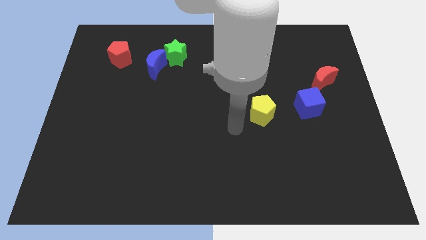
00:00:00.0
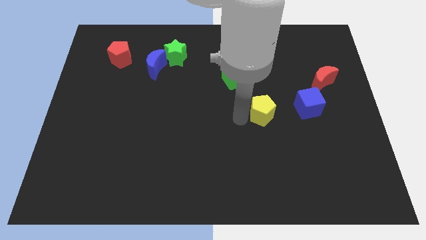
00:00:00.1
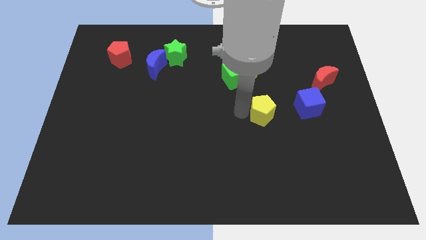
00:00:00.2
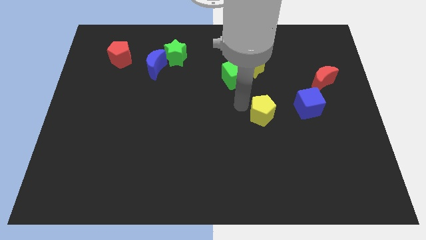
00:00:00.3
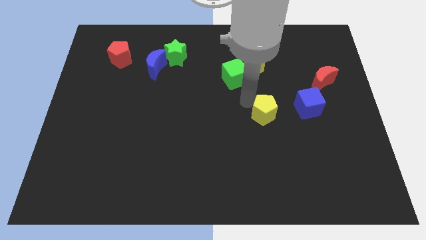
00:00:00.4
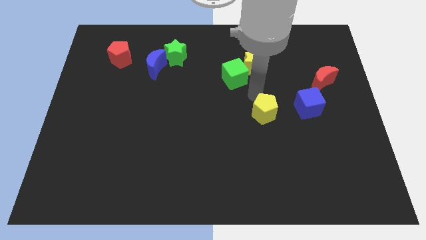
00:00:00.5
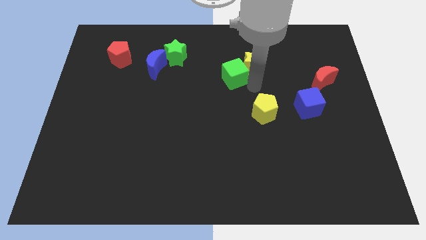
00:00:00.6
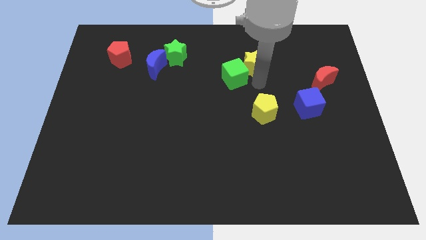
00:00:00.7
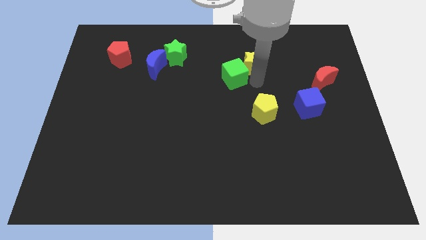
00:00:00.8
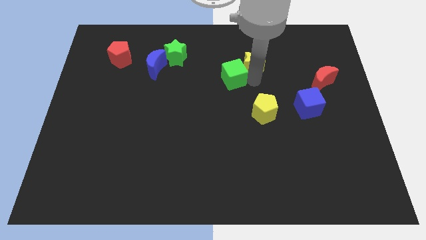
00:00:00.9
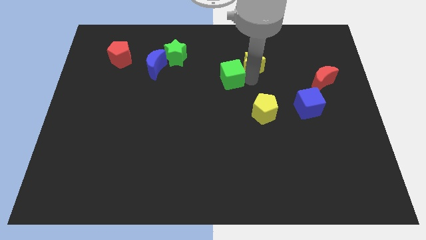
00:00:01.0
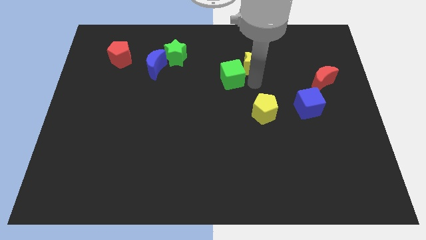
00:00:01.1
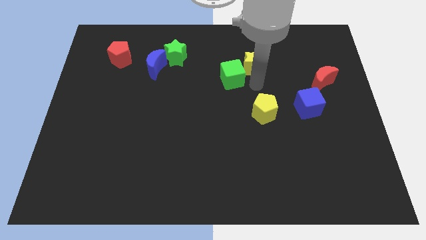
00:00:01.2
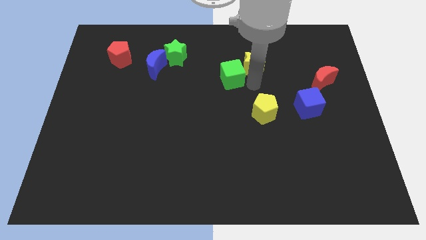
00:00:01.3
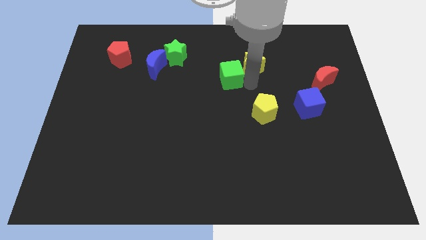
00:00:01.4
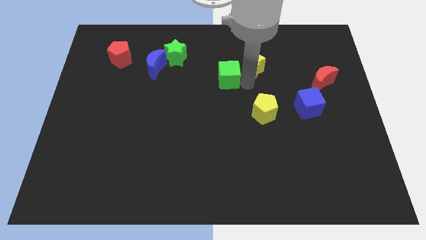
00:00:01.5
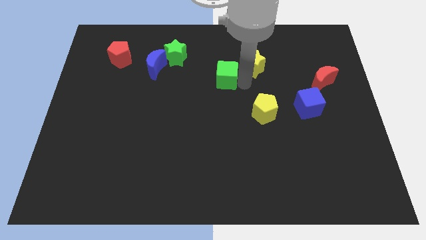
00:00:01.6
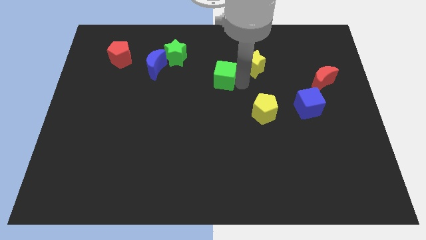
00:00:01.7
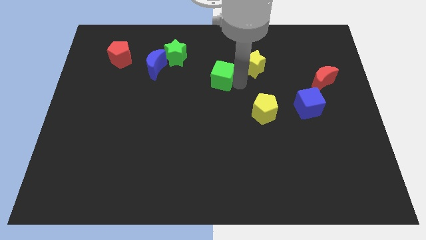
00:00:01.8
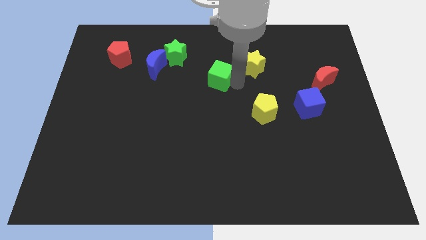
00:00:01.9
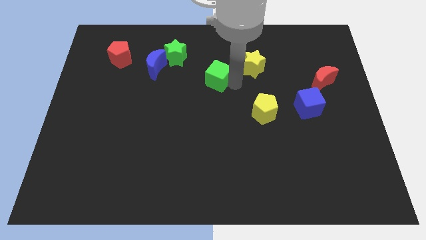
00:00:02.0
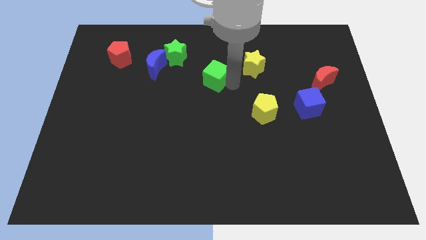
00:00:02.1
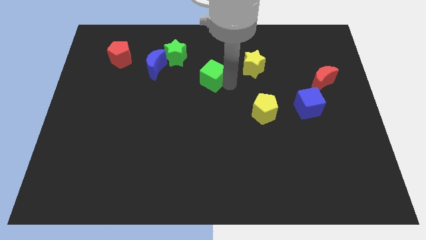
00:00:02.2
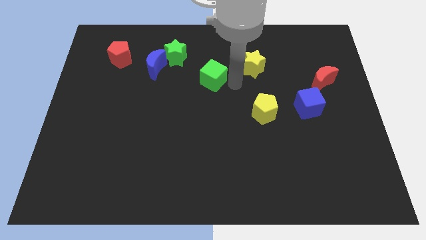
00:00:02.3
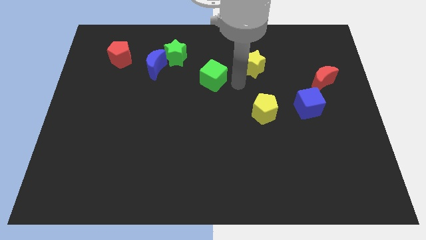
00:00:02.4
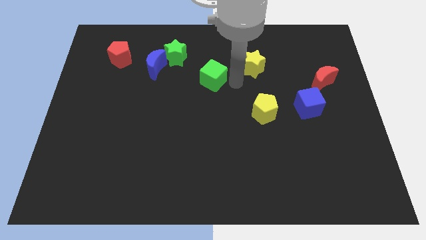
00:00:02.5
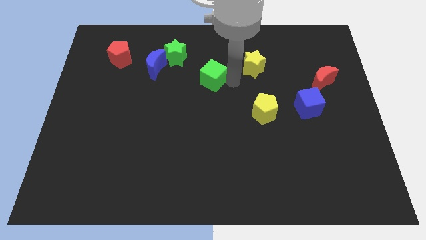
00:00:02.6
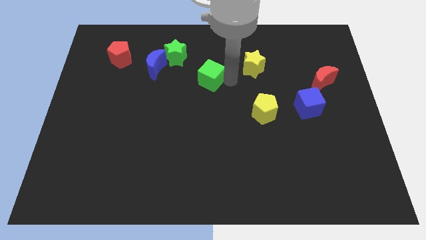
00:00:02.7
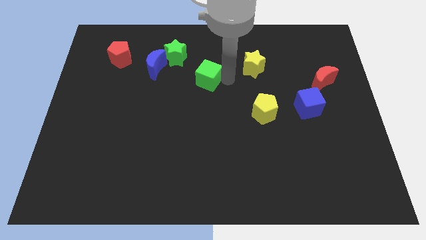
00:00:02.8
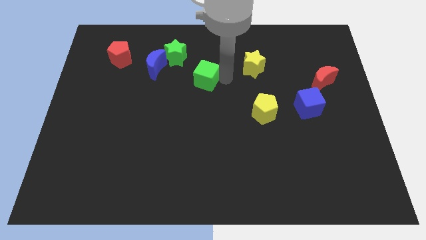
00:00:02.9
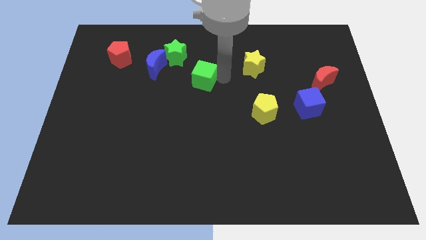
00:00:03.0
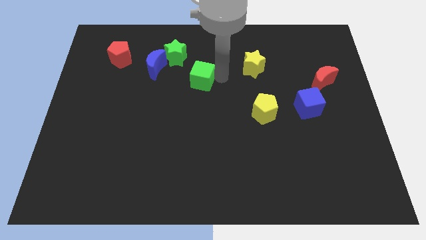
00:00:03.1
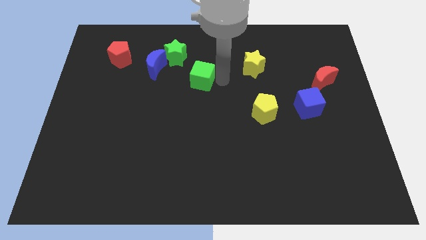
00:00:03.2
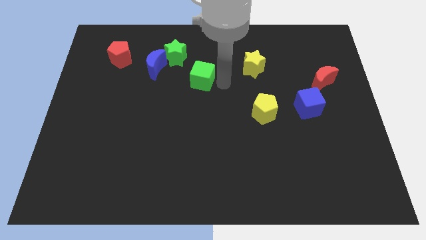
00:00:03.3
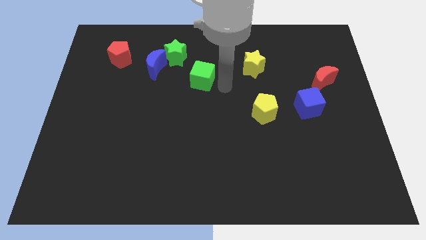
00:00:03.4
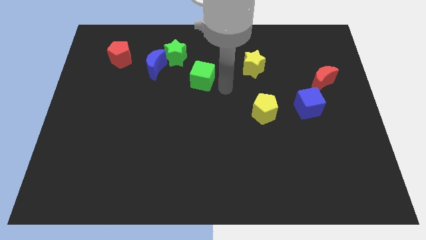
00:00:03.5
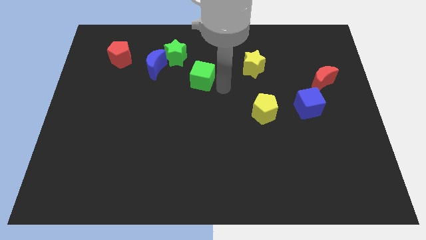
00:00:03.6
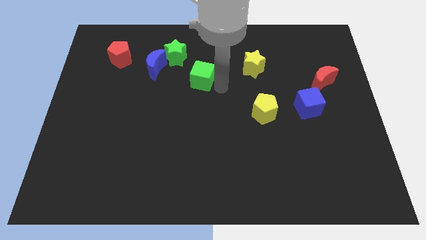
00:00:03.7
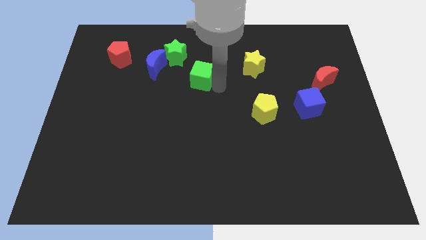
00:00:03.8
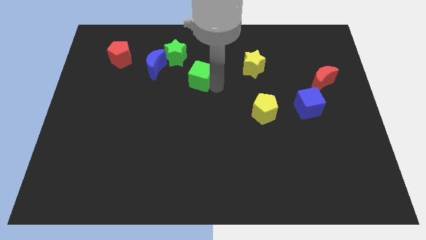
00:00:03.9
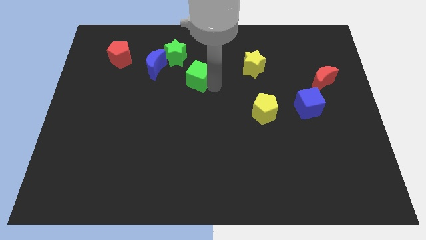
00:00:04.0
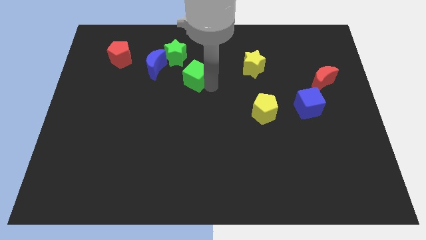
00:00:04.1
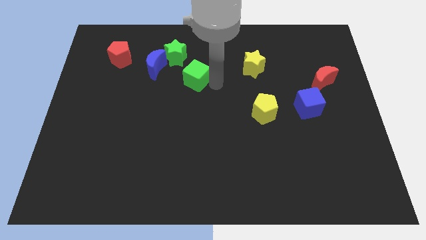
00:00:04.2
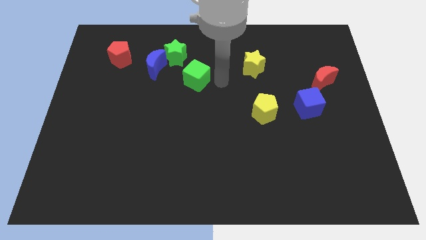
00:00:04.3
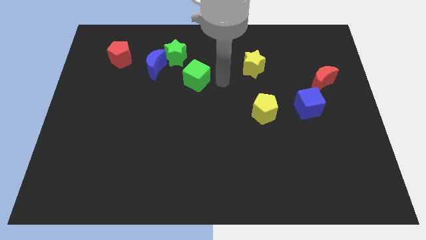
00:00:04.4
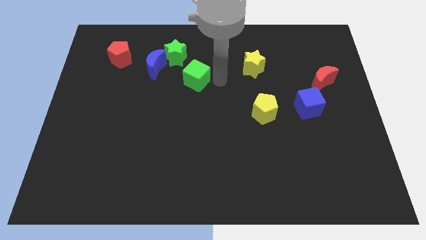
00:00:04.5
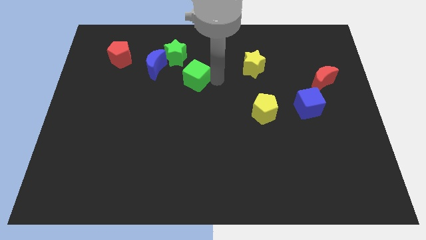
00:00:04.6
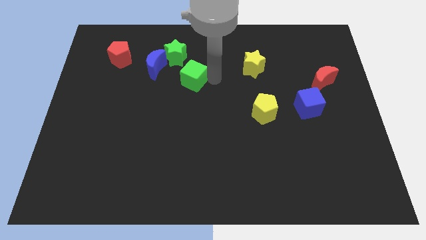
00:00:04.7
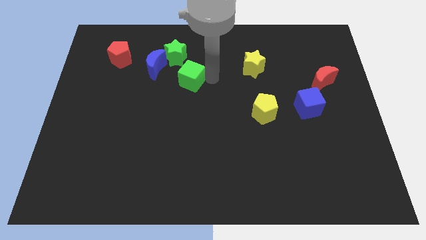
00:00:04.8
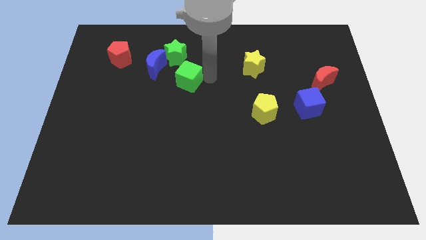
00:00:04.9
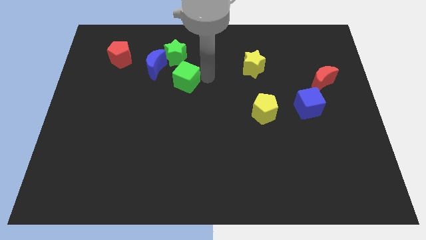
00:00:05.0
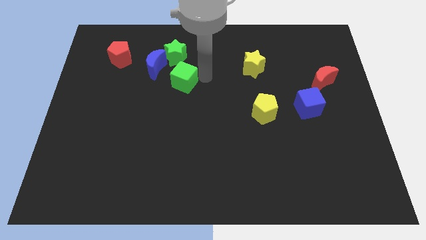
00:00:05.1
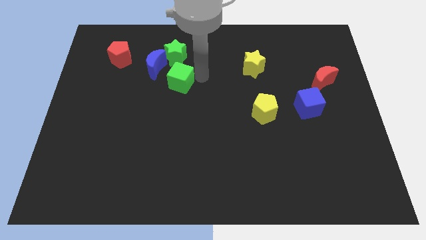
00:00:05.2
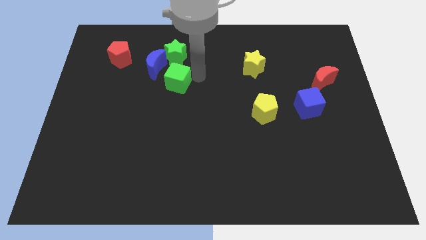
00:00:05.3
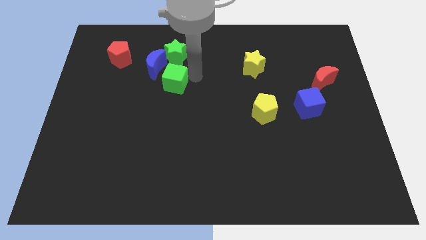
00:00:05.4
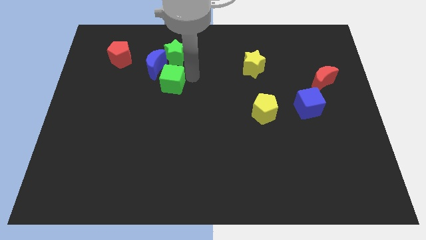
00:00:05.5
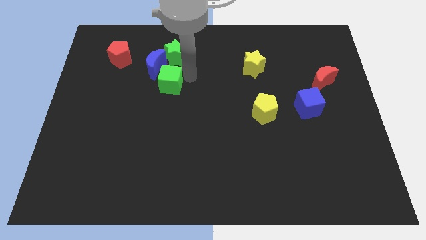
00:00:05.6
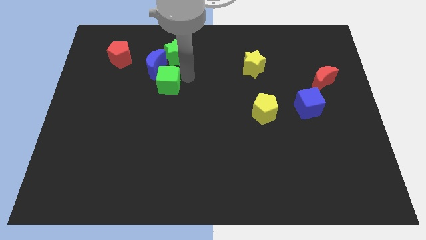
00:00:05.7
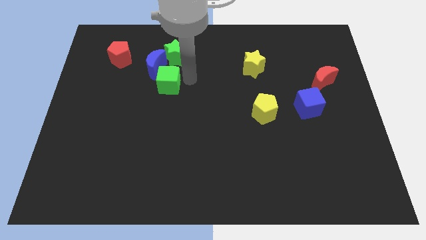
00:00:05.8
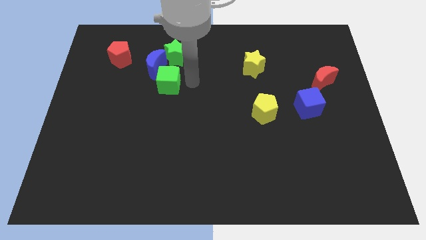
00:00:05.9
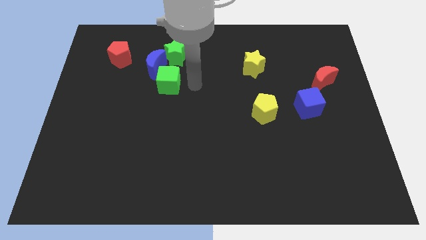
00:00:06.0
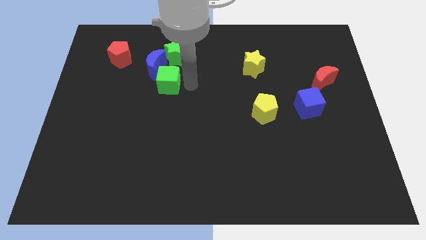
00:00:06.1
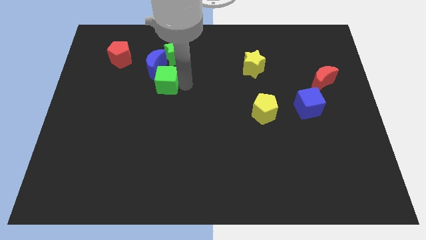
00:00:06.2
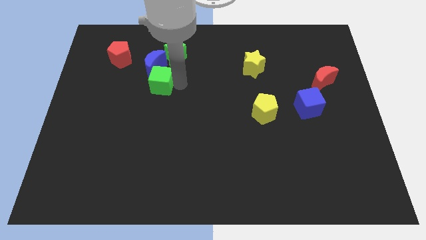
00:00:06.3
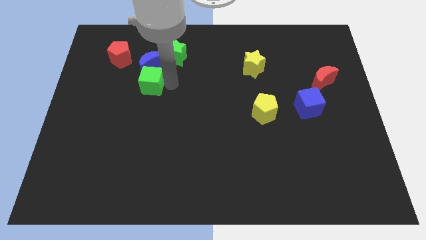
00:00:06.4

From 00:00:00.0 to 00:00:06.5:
push the green cube to the left

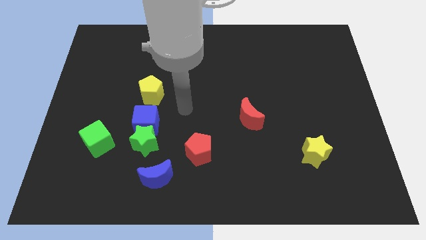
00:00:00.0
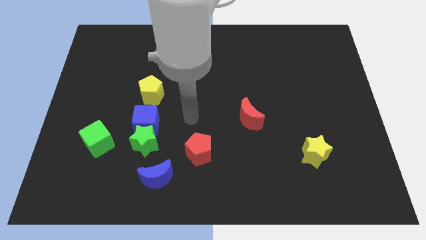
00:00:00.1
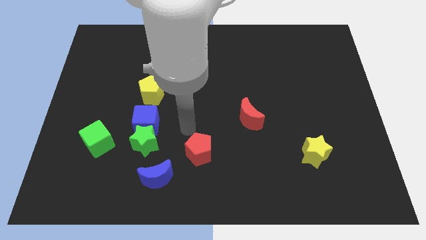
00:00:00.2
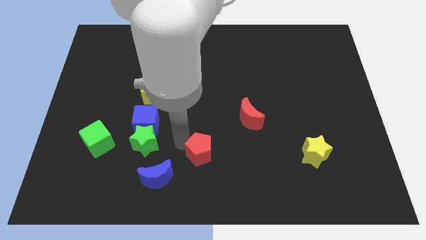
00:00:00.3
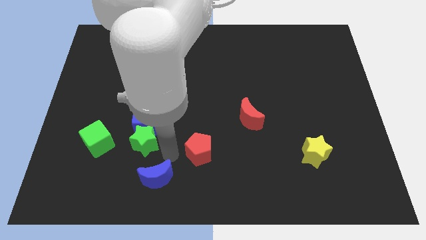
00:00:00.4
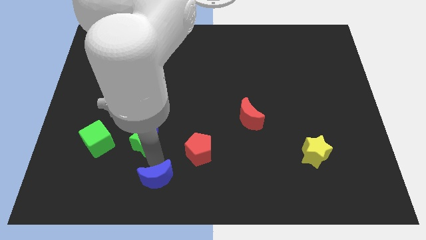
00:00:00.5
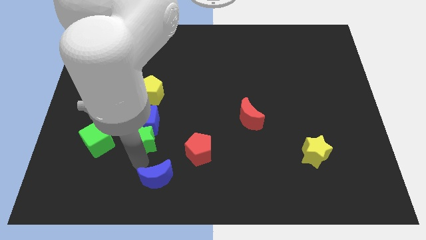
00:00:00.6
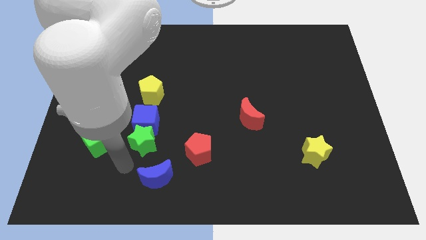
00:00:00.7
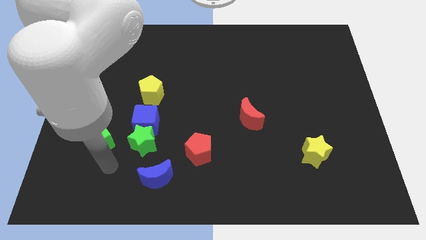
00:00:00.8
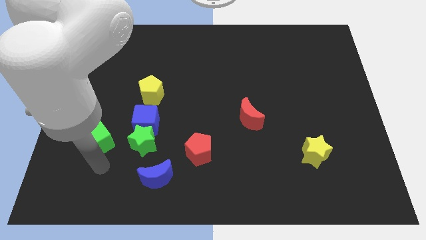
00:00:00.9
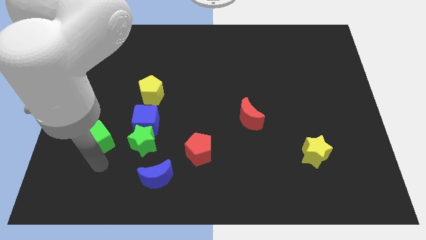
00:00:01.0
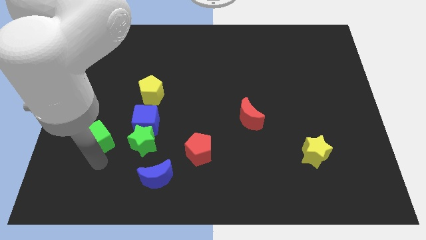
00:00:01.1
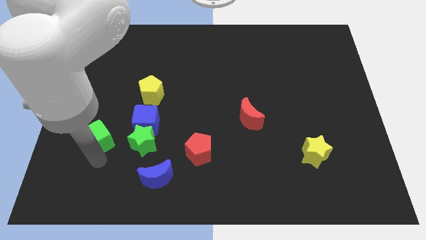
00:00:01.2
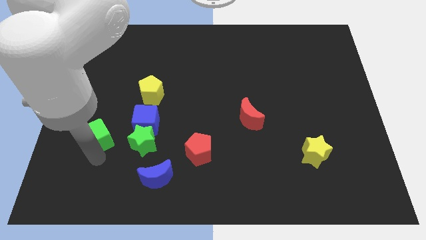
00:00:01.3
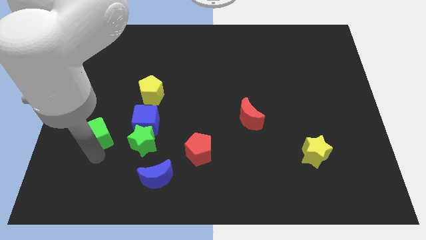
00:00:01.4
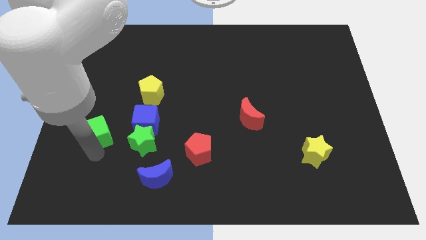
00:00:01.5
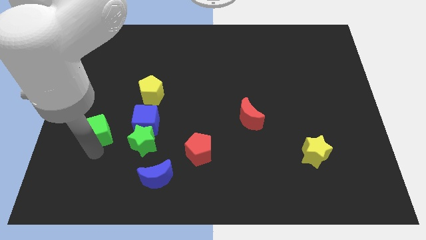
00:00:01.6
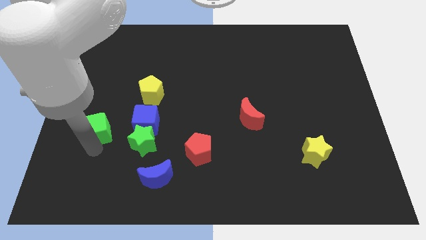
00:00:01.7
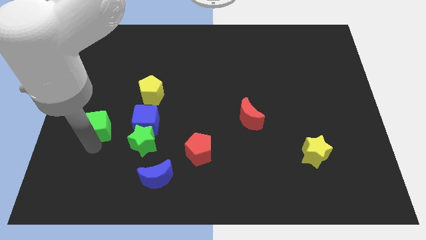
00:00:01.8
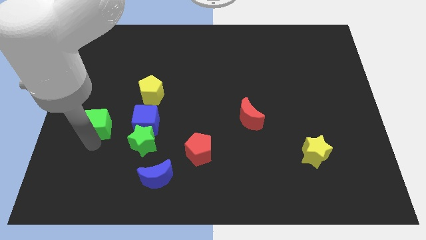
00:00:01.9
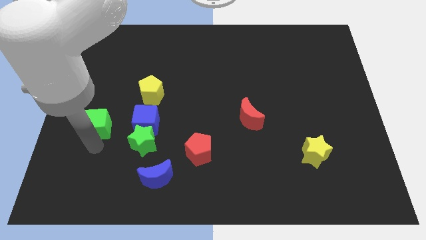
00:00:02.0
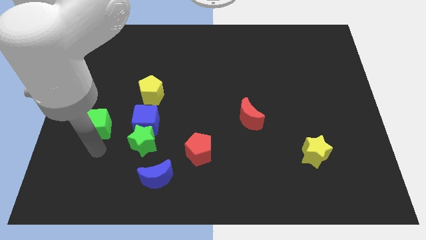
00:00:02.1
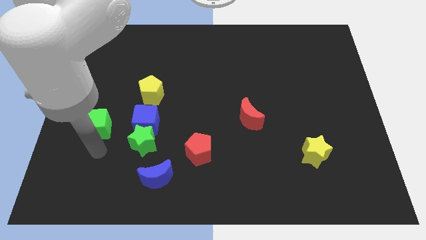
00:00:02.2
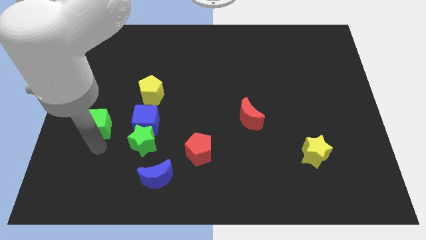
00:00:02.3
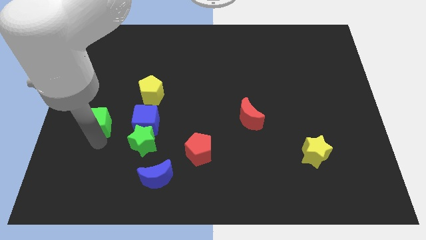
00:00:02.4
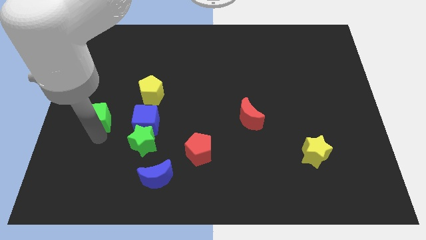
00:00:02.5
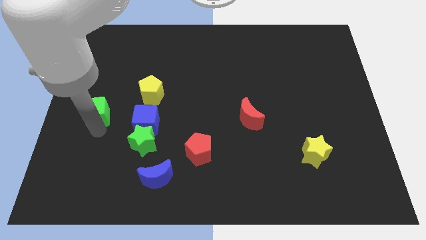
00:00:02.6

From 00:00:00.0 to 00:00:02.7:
push the green cube somewhat upwards
